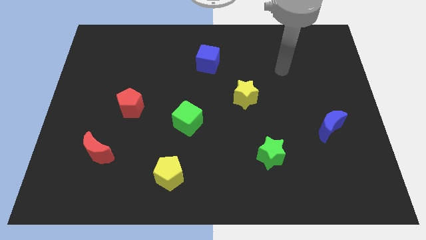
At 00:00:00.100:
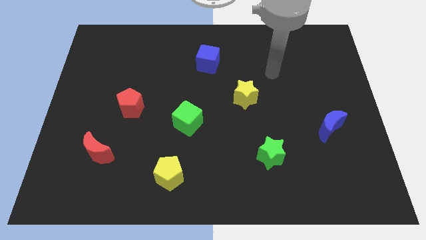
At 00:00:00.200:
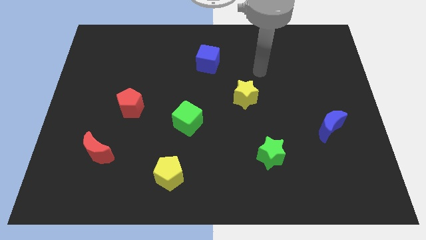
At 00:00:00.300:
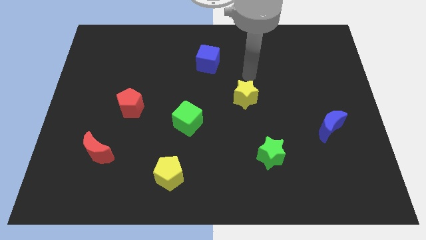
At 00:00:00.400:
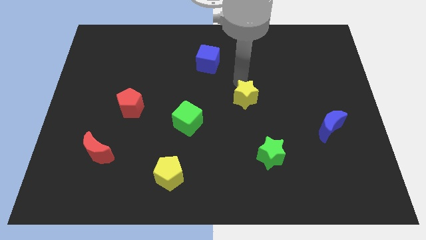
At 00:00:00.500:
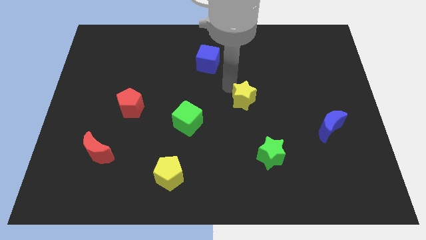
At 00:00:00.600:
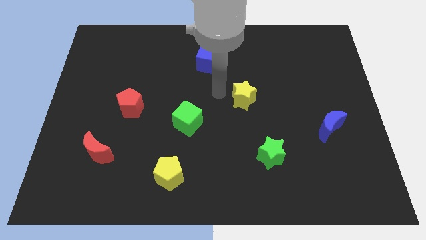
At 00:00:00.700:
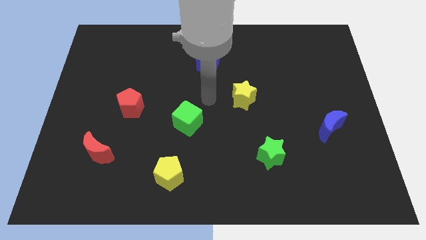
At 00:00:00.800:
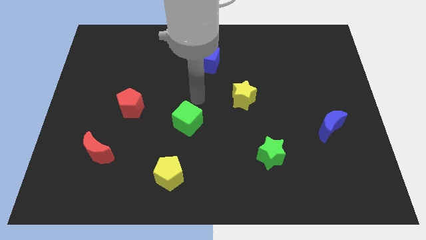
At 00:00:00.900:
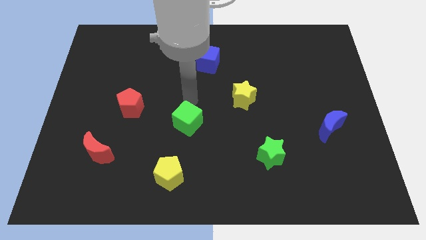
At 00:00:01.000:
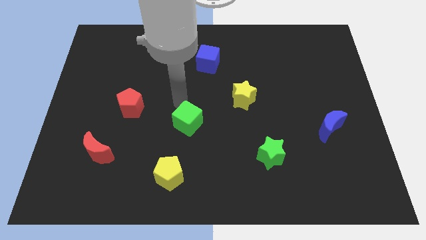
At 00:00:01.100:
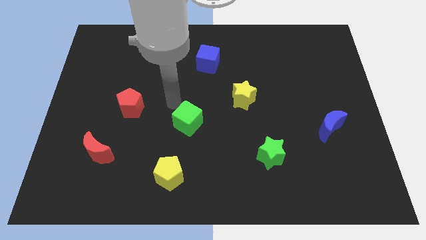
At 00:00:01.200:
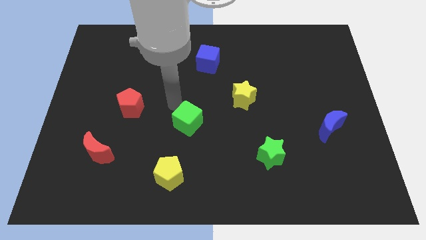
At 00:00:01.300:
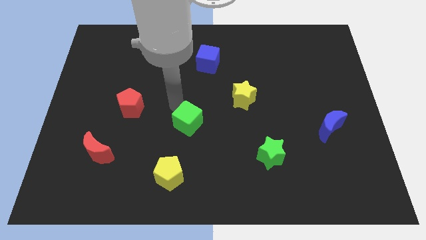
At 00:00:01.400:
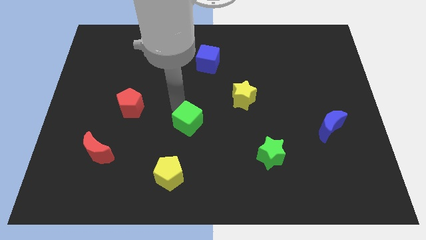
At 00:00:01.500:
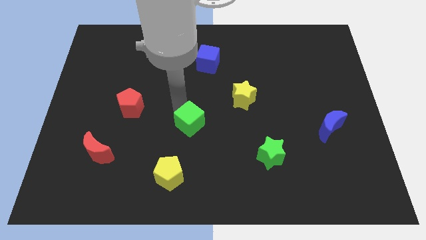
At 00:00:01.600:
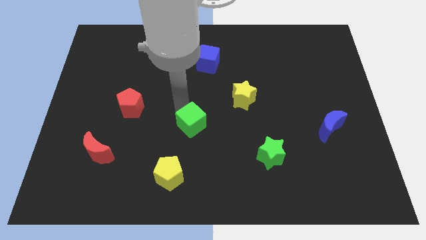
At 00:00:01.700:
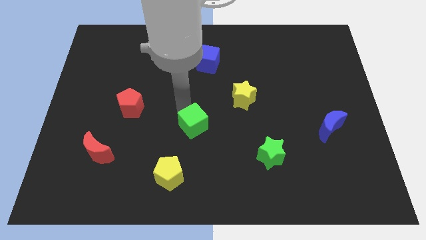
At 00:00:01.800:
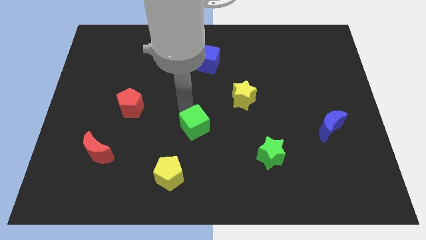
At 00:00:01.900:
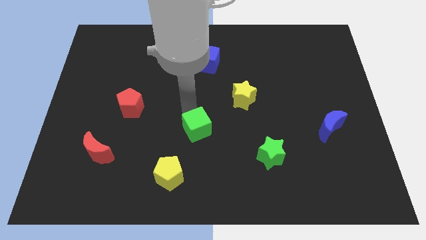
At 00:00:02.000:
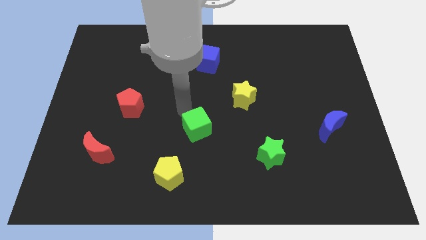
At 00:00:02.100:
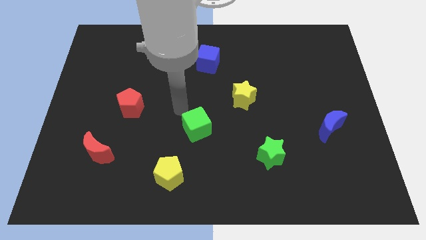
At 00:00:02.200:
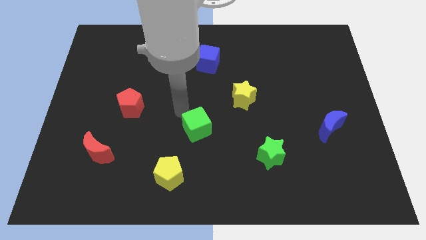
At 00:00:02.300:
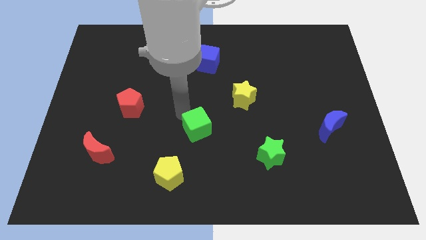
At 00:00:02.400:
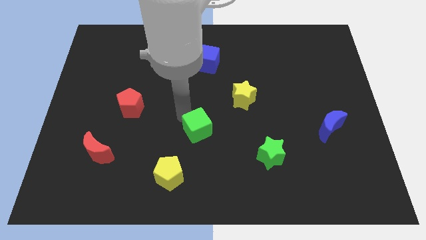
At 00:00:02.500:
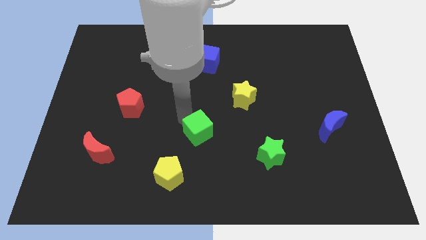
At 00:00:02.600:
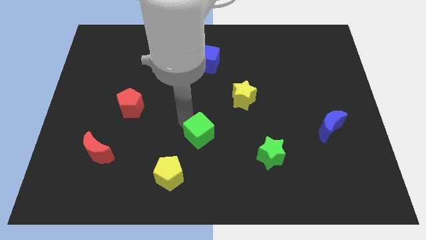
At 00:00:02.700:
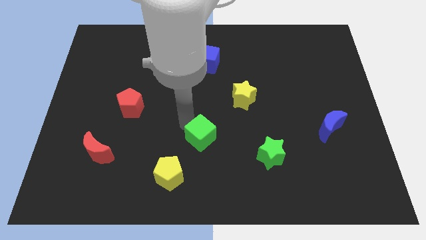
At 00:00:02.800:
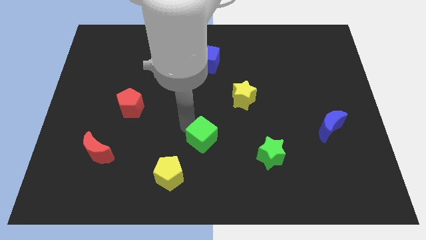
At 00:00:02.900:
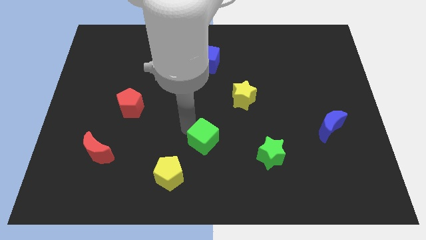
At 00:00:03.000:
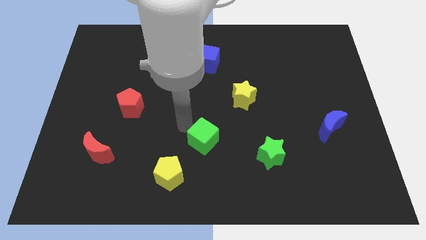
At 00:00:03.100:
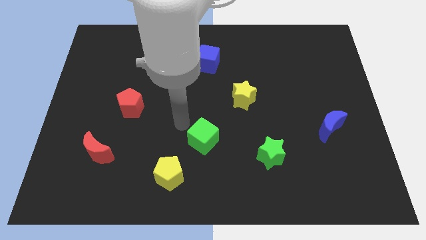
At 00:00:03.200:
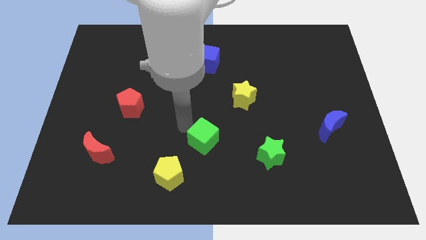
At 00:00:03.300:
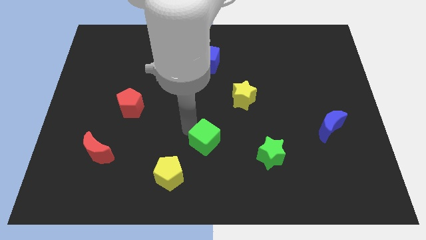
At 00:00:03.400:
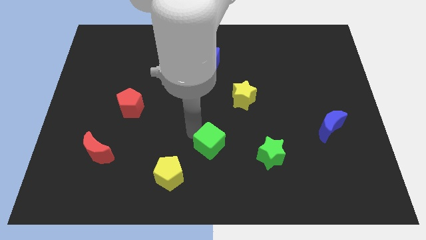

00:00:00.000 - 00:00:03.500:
slide the green cube somewhat down and then to the right

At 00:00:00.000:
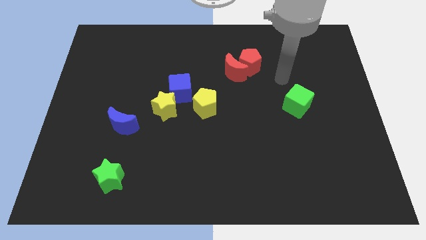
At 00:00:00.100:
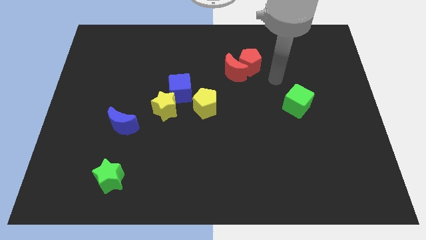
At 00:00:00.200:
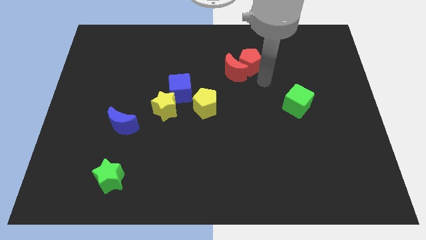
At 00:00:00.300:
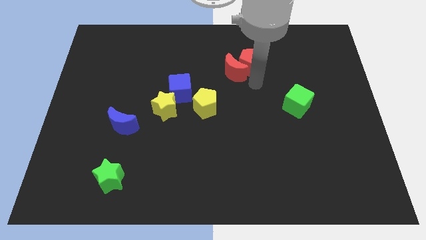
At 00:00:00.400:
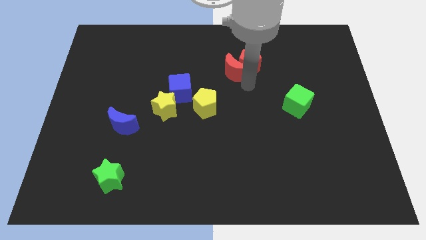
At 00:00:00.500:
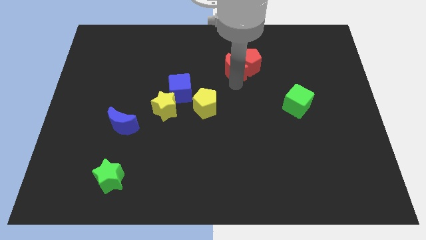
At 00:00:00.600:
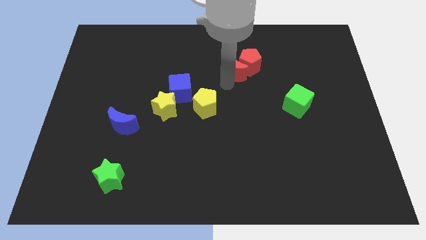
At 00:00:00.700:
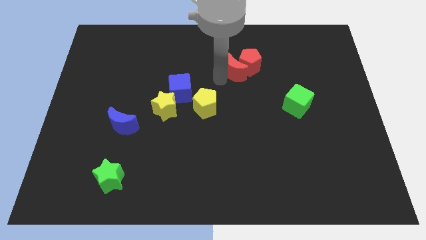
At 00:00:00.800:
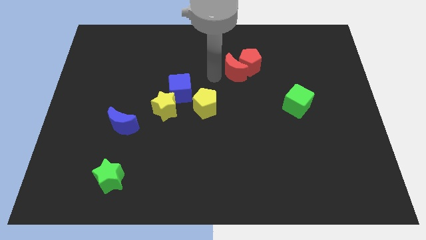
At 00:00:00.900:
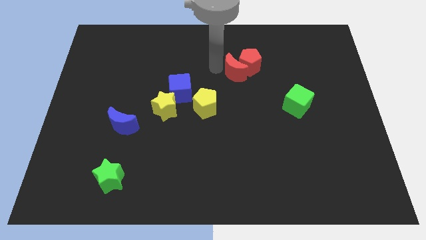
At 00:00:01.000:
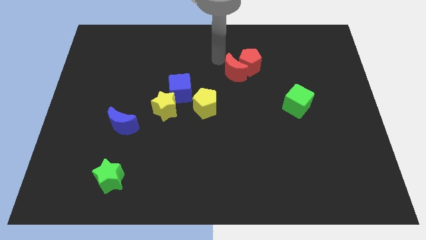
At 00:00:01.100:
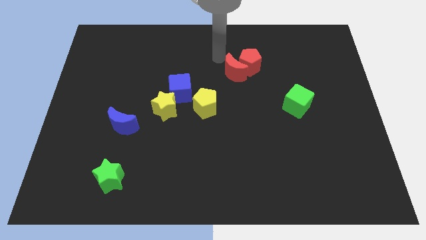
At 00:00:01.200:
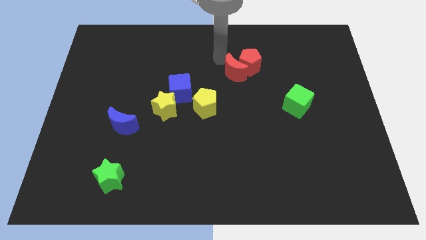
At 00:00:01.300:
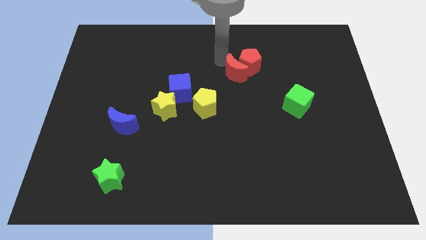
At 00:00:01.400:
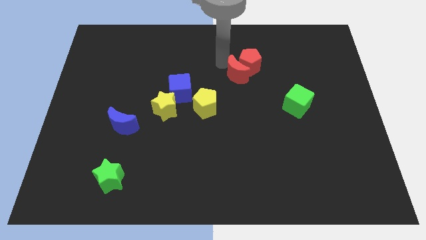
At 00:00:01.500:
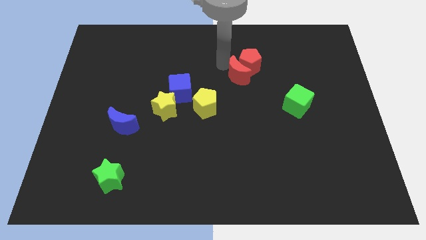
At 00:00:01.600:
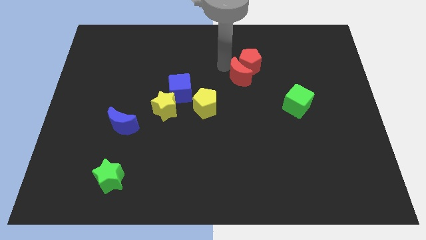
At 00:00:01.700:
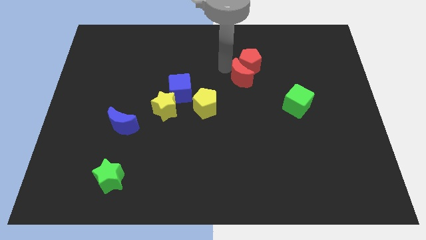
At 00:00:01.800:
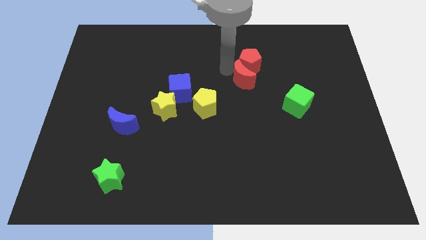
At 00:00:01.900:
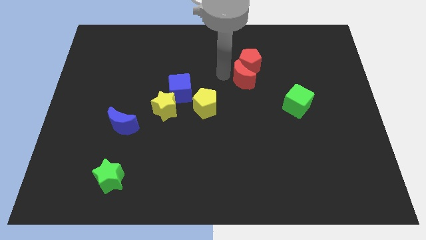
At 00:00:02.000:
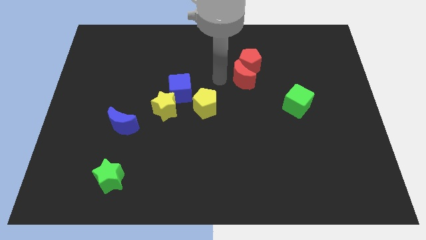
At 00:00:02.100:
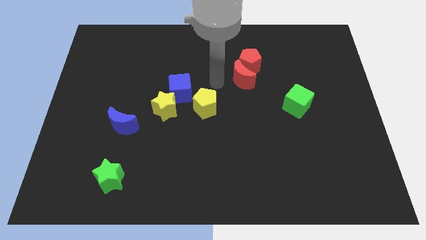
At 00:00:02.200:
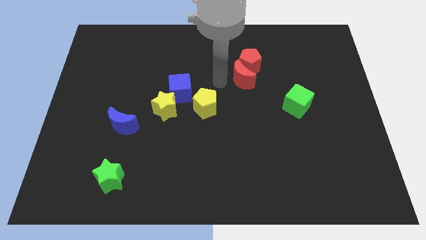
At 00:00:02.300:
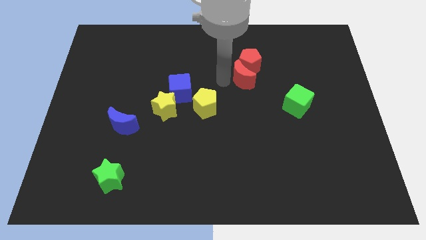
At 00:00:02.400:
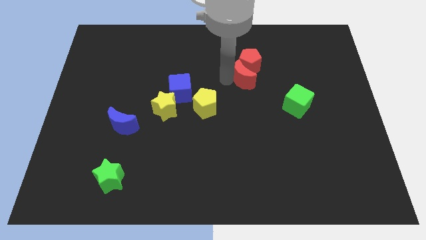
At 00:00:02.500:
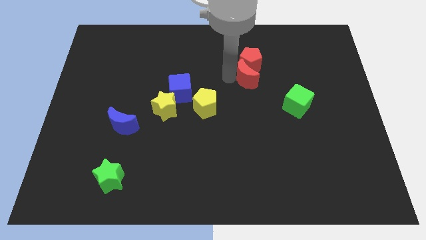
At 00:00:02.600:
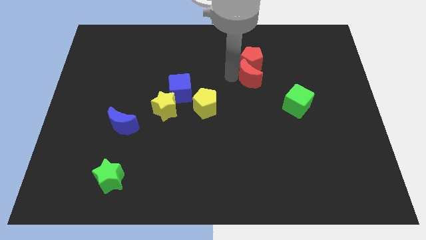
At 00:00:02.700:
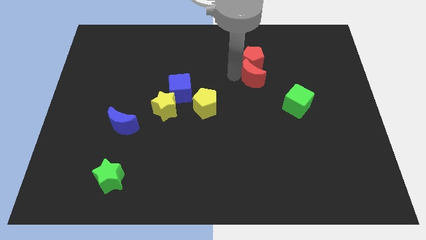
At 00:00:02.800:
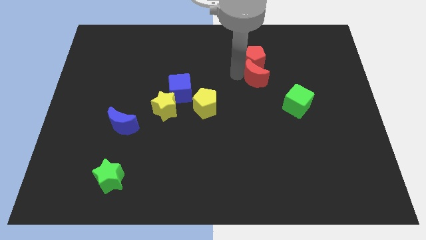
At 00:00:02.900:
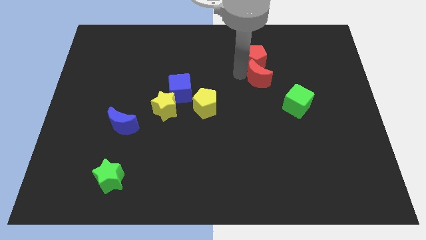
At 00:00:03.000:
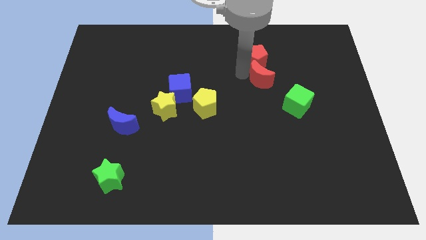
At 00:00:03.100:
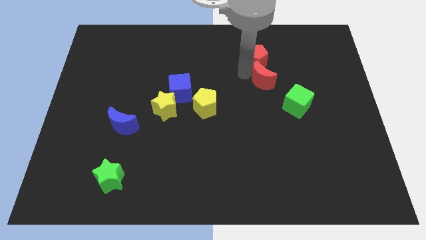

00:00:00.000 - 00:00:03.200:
slide the red moon a little bit to the right

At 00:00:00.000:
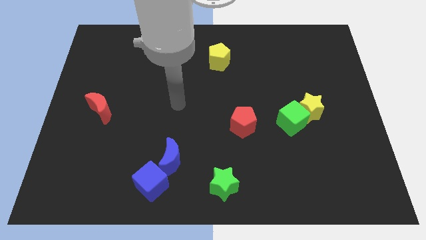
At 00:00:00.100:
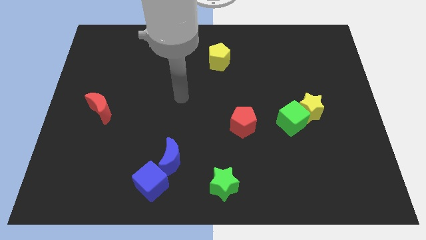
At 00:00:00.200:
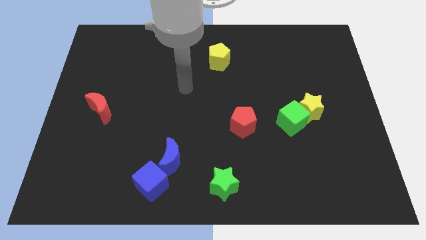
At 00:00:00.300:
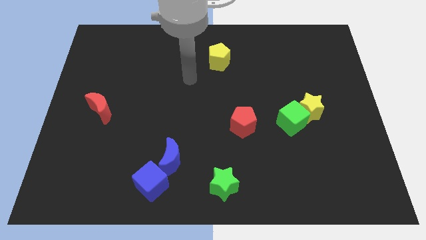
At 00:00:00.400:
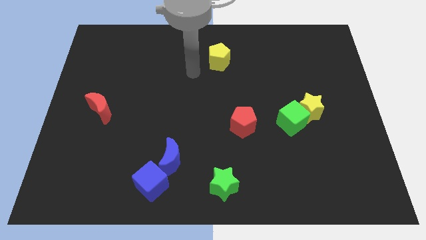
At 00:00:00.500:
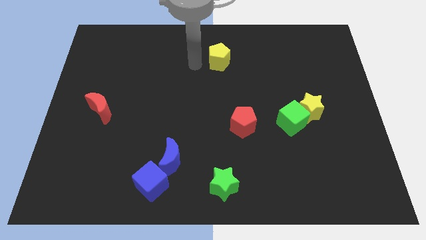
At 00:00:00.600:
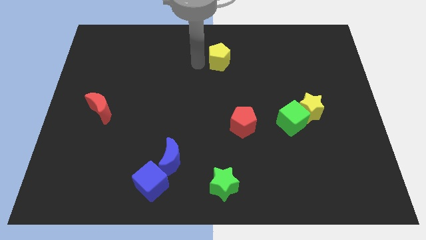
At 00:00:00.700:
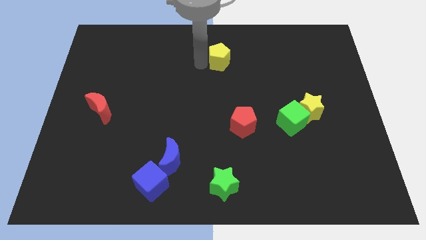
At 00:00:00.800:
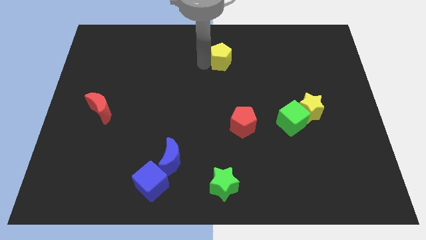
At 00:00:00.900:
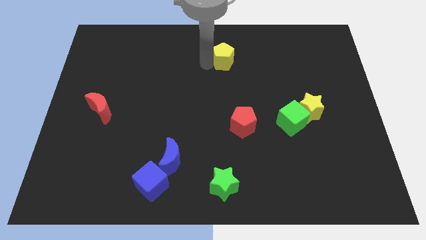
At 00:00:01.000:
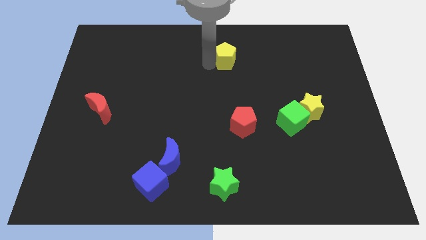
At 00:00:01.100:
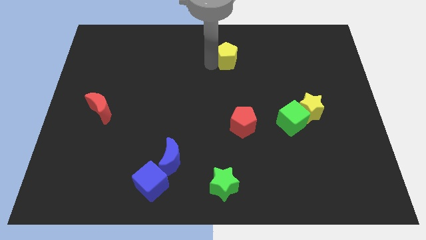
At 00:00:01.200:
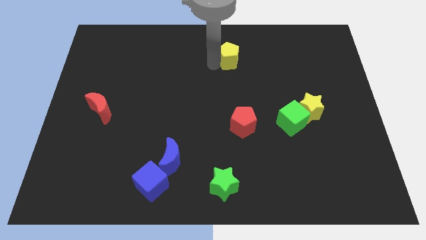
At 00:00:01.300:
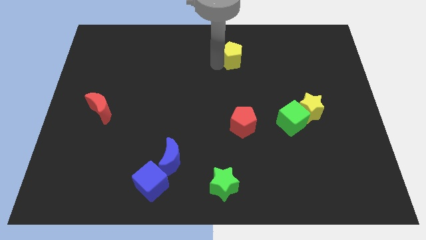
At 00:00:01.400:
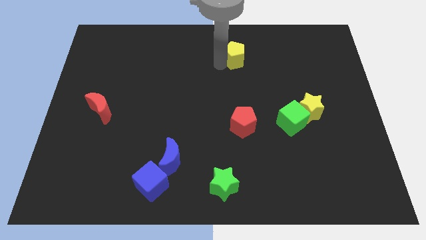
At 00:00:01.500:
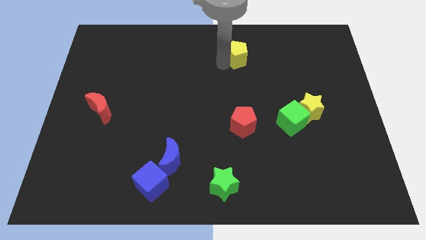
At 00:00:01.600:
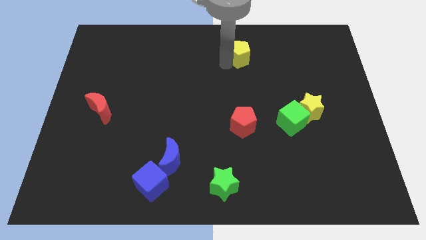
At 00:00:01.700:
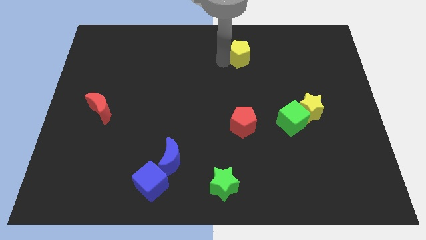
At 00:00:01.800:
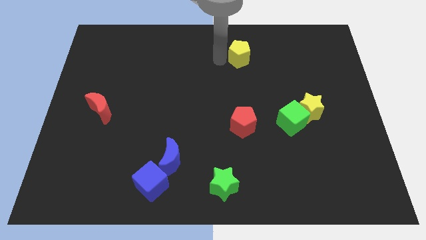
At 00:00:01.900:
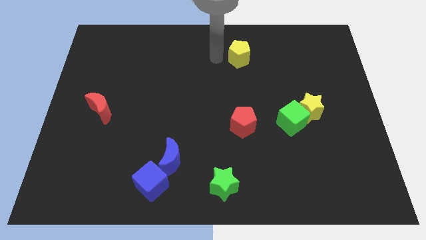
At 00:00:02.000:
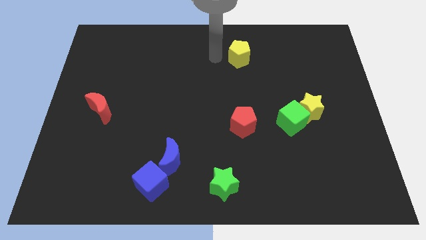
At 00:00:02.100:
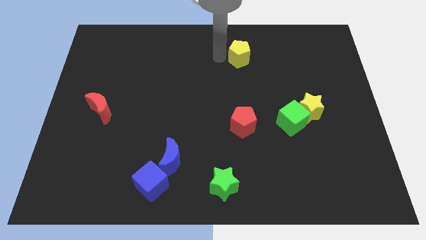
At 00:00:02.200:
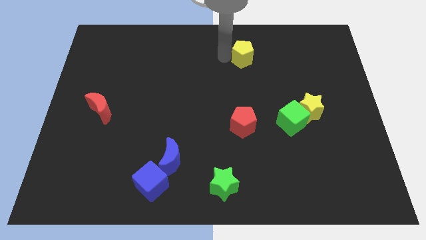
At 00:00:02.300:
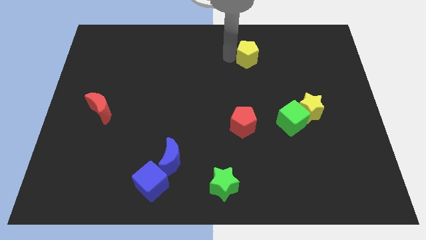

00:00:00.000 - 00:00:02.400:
move the yellow pentagon right a bit
